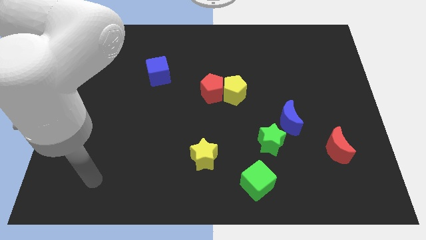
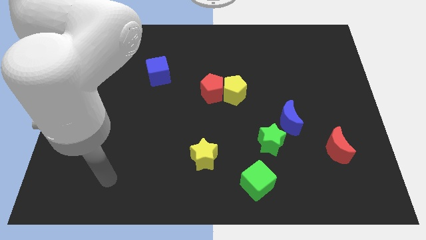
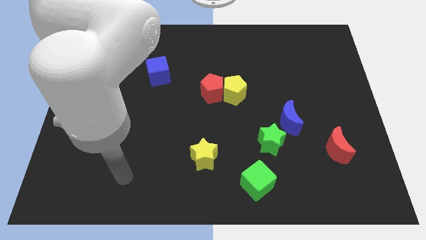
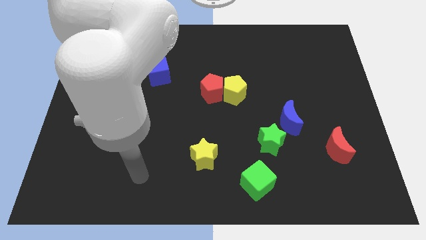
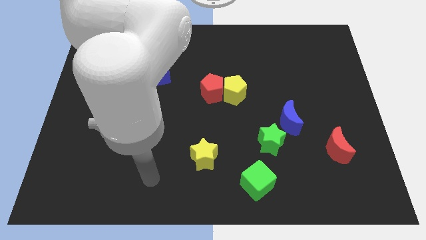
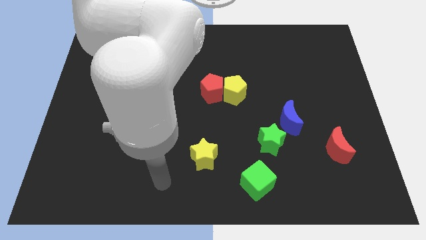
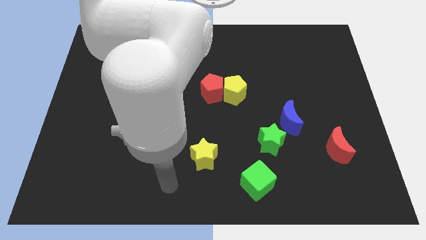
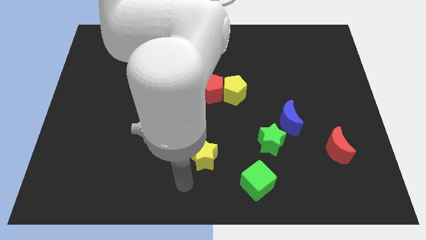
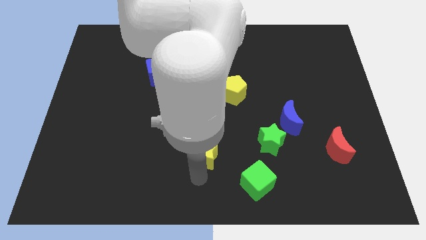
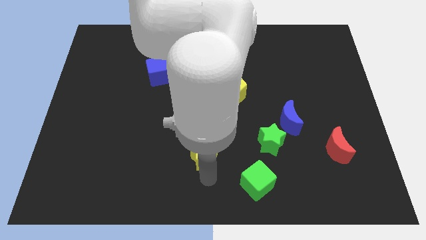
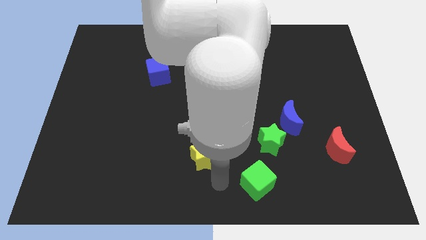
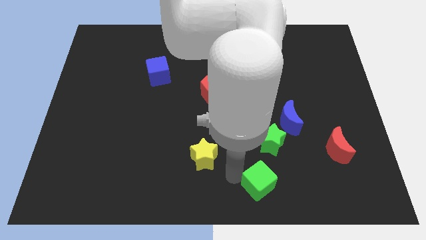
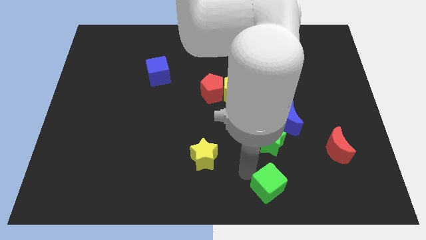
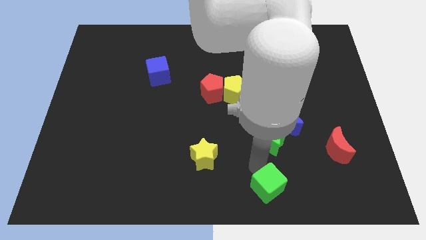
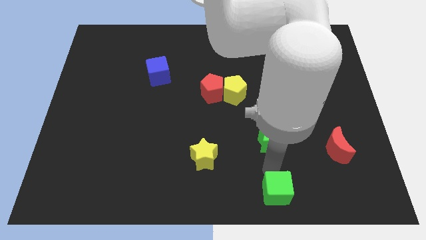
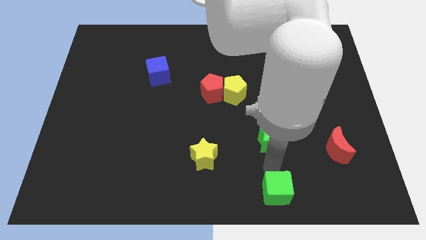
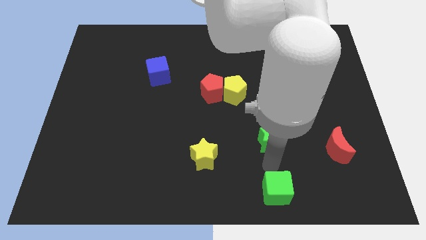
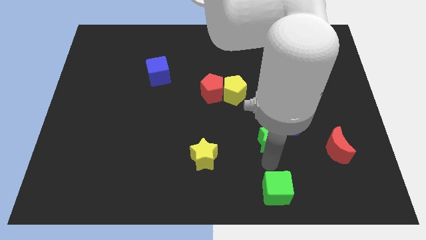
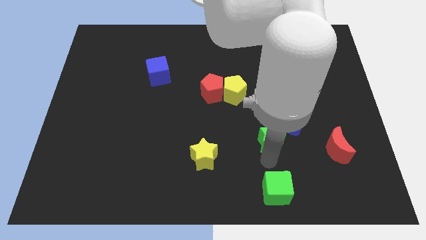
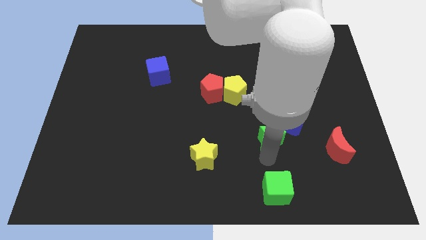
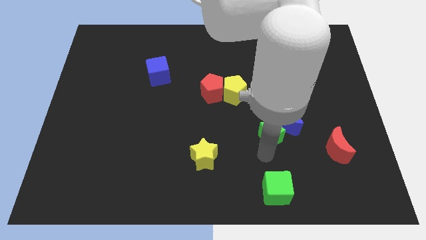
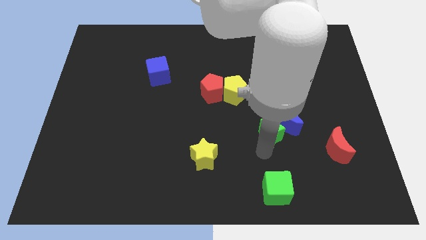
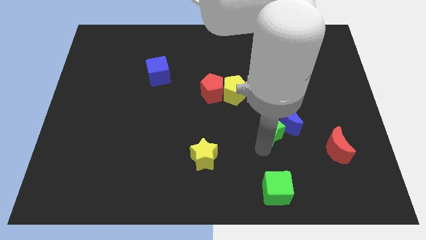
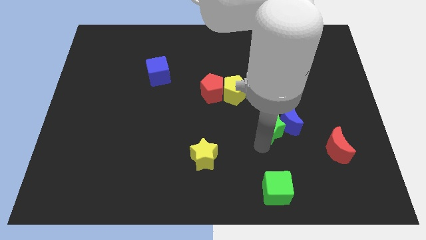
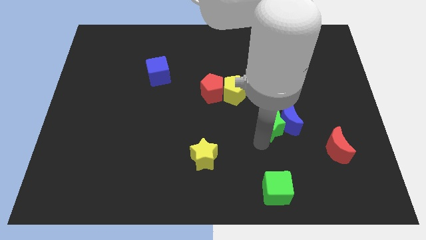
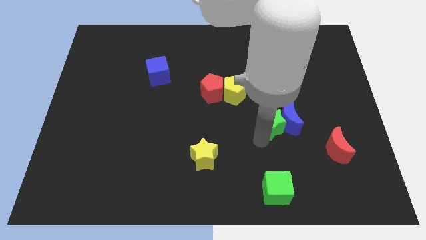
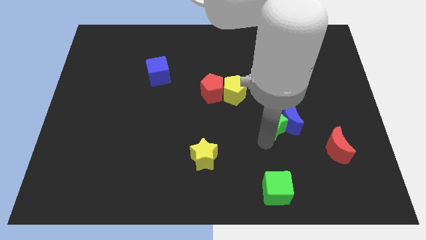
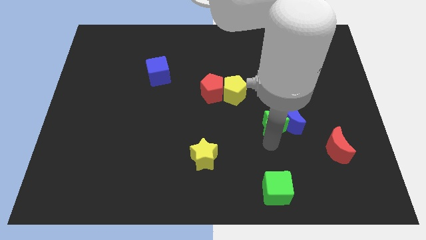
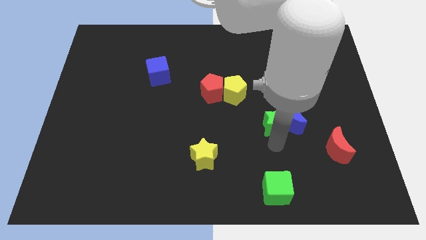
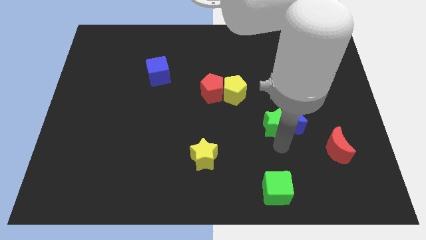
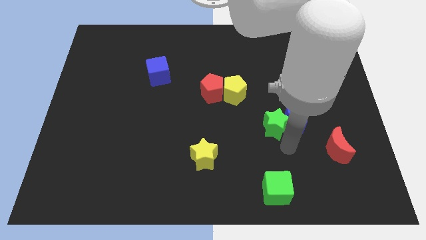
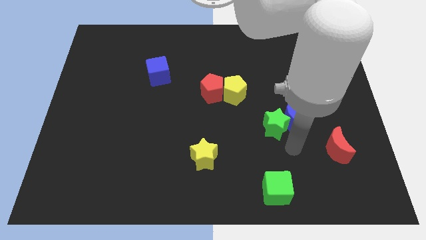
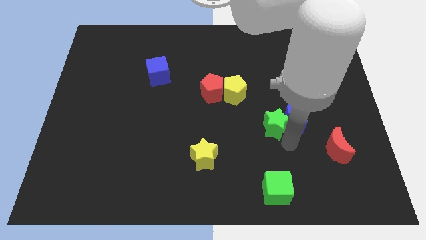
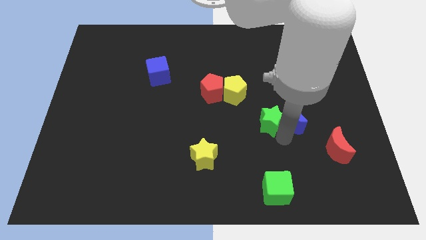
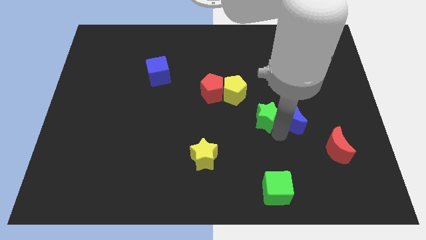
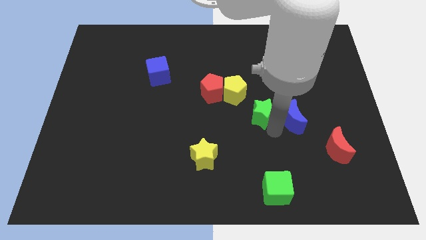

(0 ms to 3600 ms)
slightly push the green star upwards

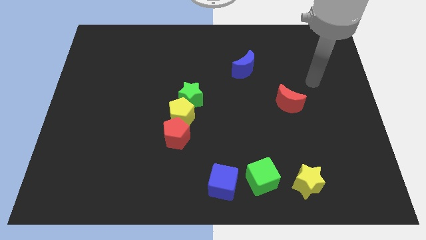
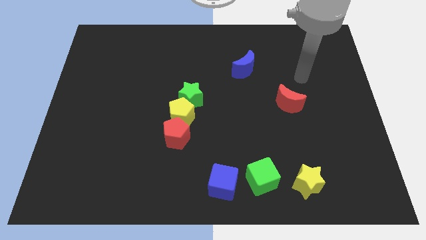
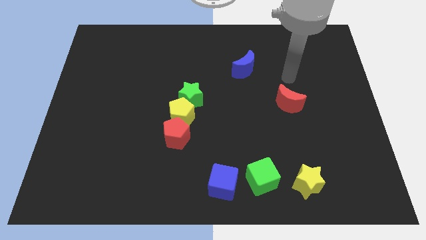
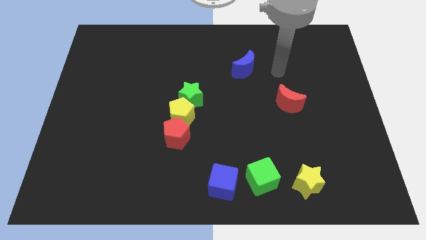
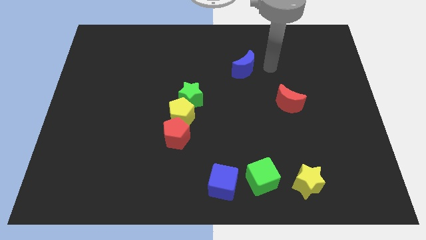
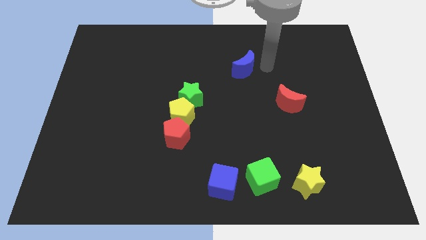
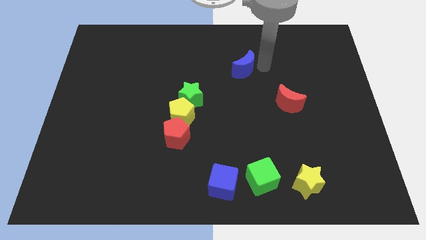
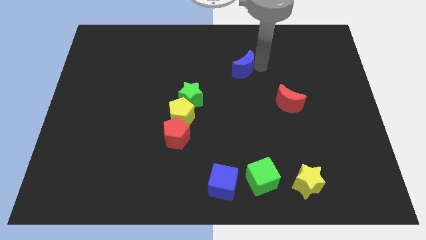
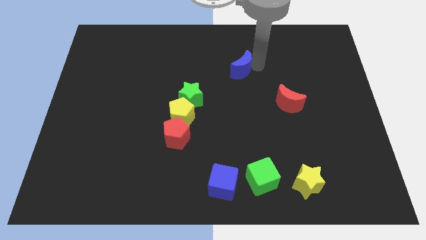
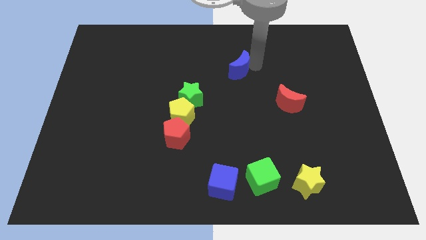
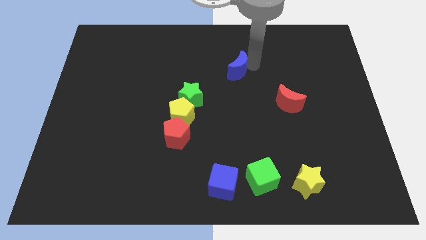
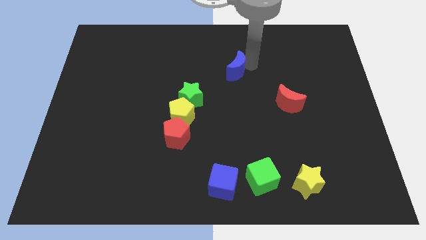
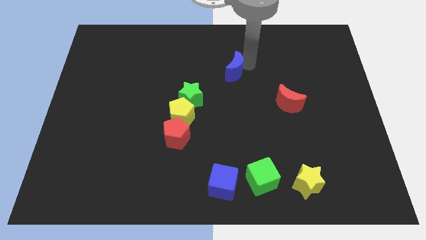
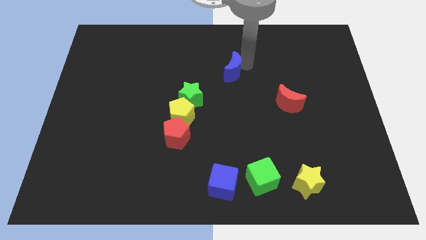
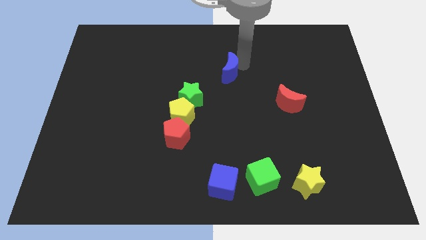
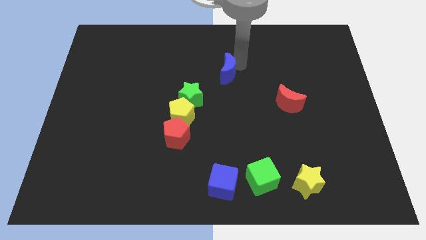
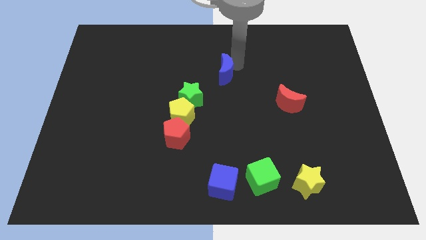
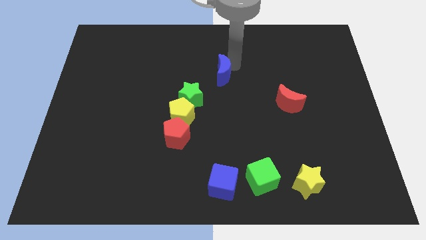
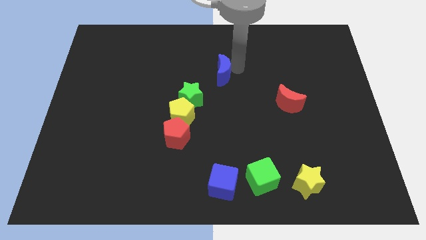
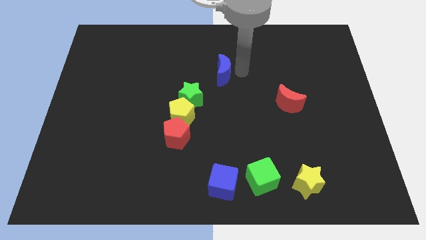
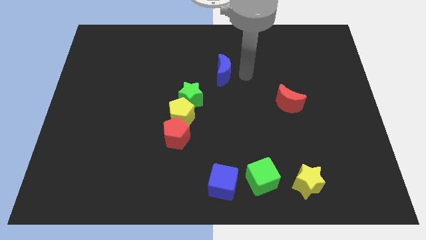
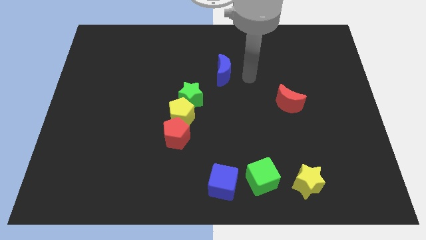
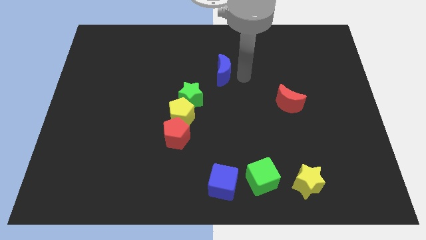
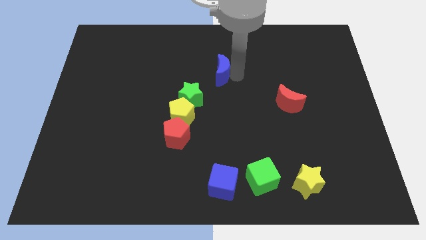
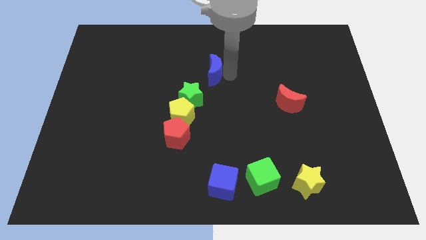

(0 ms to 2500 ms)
slide the blue moon to the left a bit

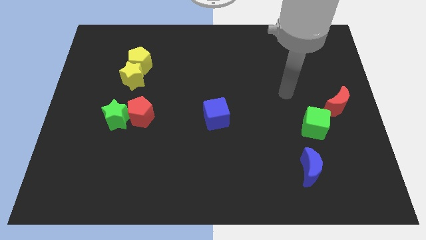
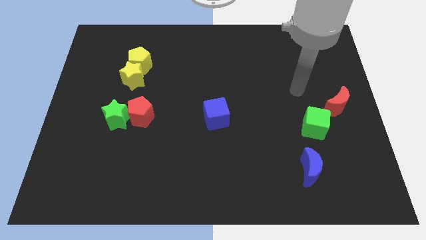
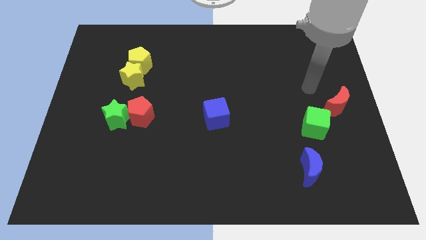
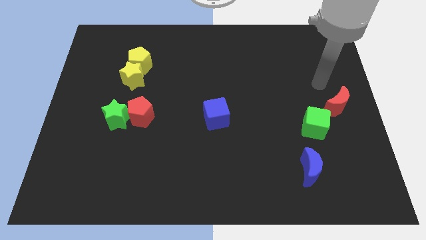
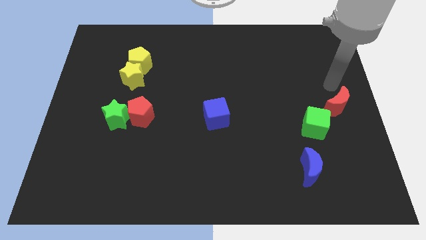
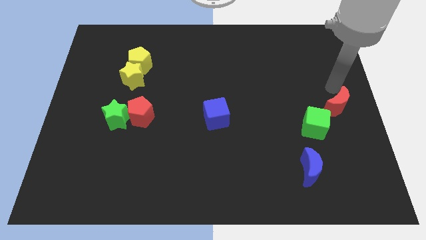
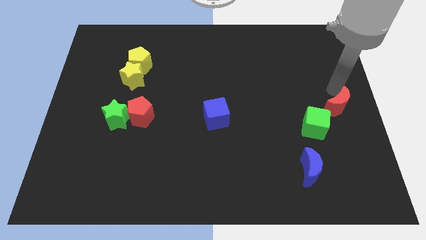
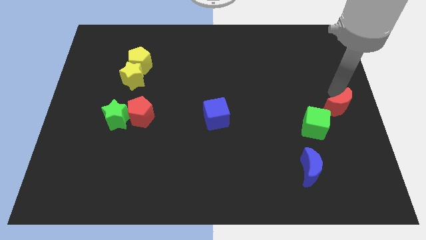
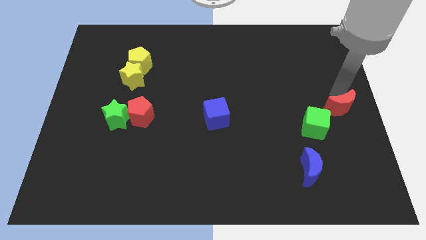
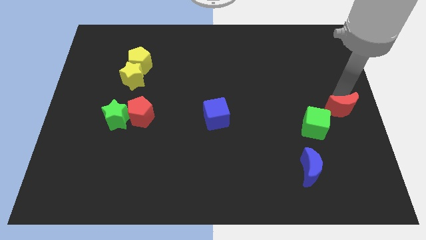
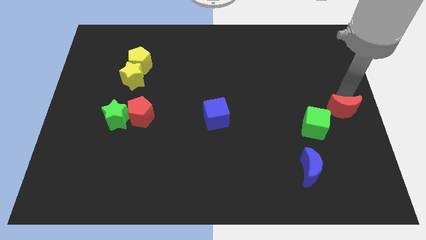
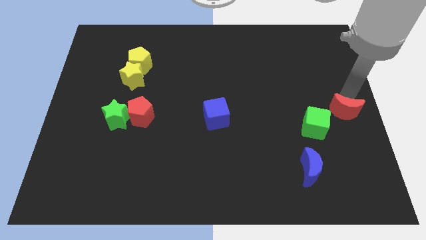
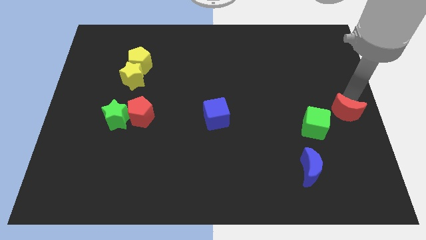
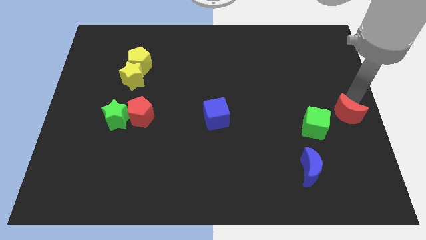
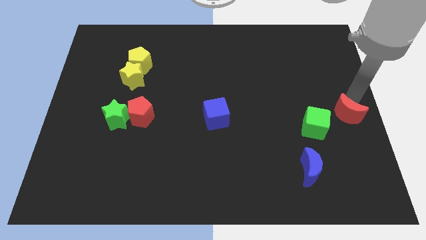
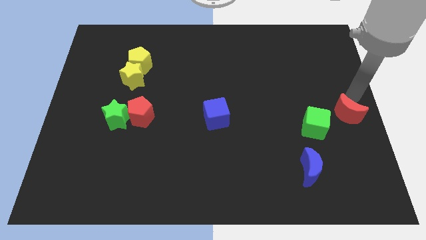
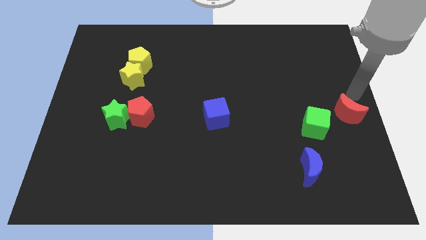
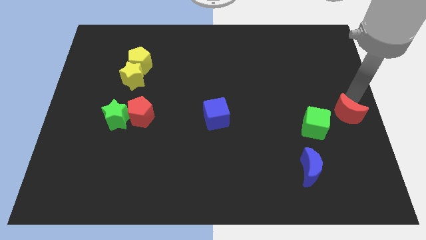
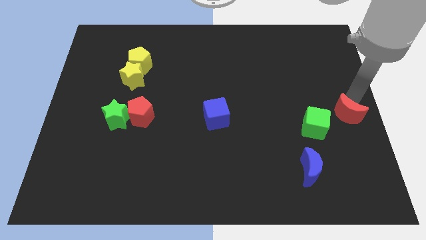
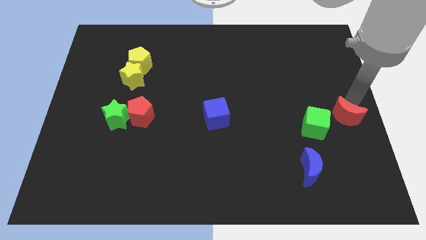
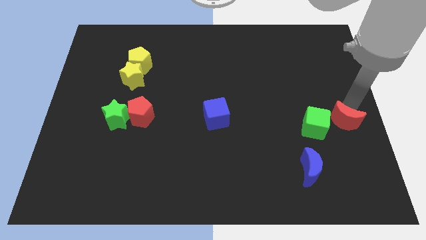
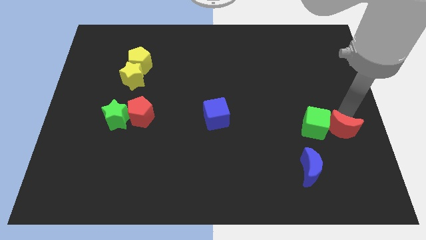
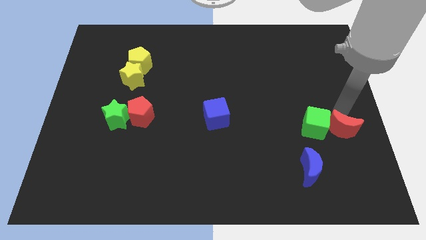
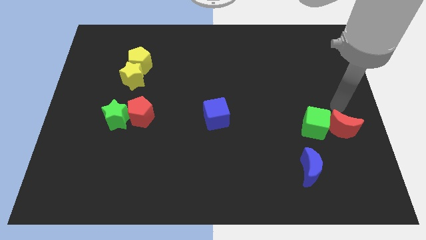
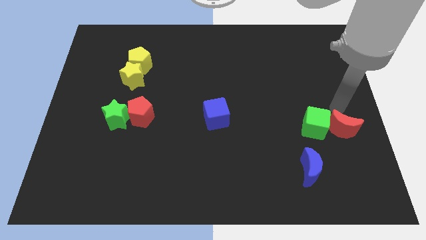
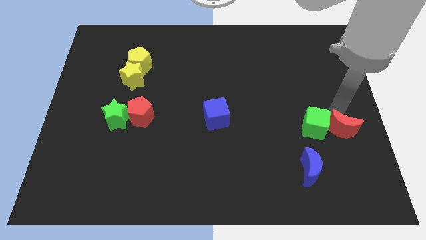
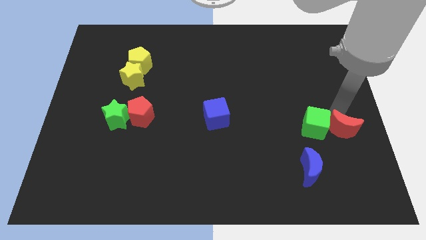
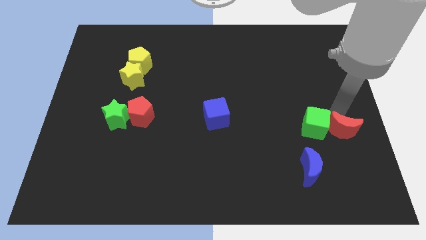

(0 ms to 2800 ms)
slightly move the red moon down
